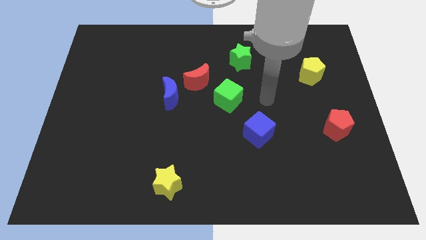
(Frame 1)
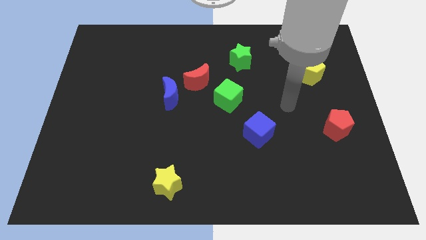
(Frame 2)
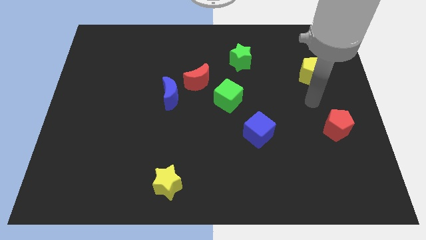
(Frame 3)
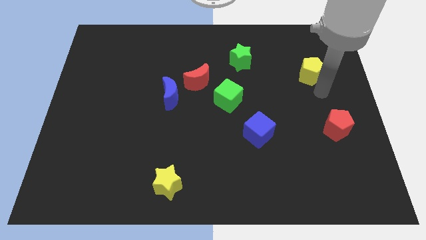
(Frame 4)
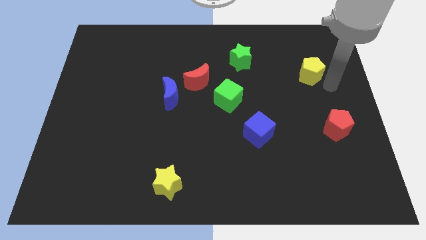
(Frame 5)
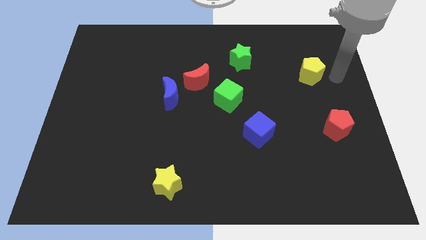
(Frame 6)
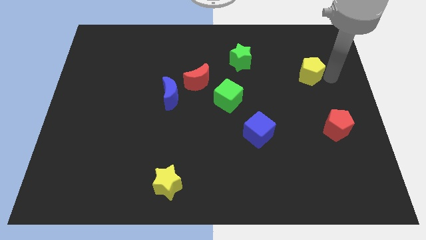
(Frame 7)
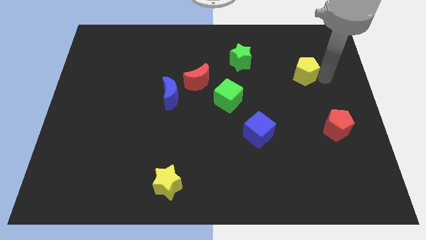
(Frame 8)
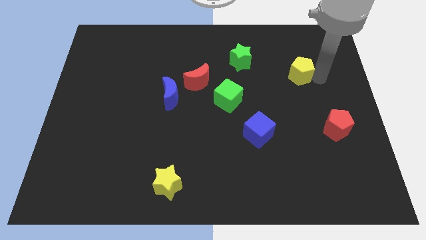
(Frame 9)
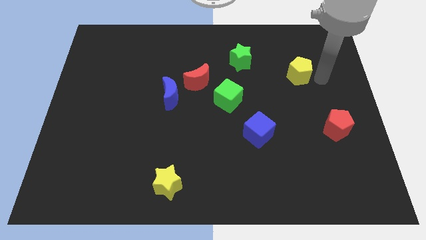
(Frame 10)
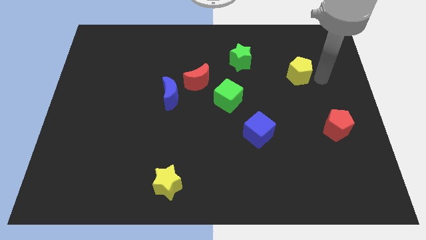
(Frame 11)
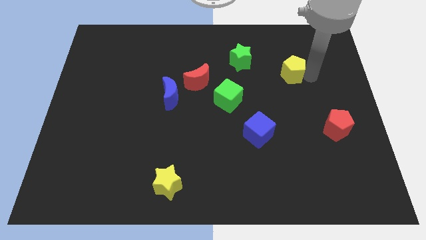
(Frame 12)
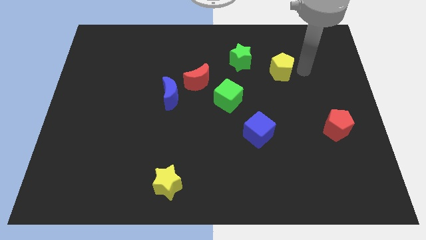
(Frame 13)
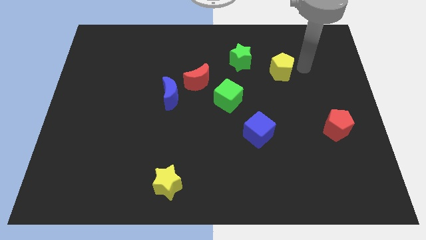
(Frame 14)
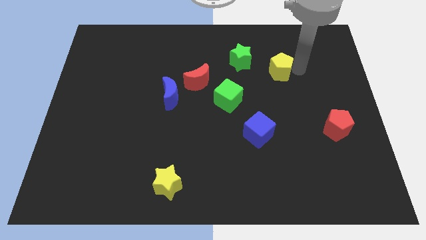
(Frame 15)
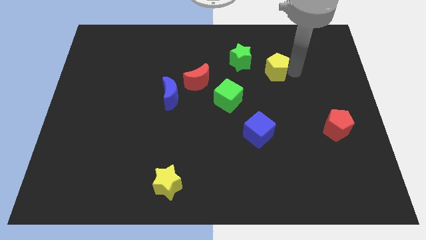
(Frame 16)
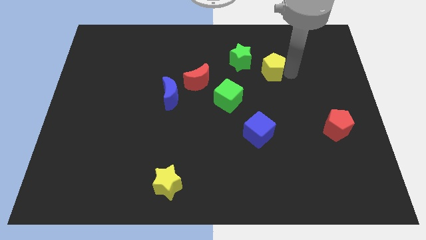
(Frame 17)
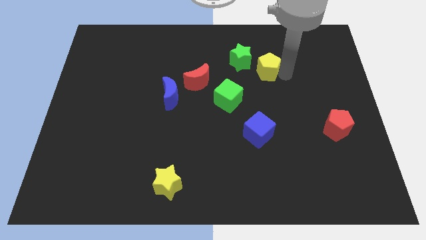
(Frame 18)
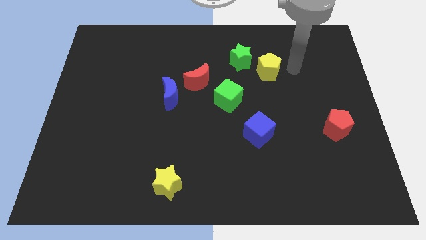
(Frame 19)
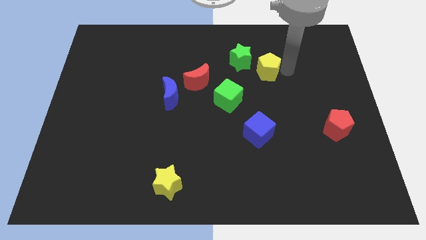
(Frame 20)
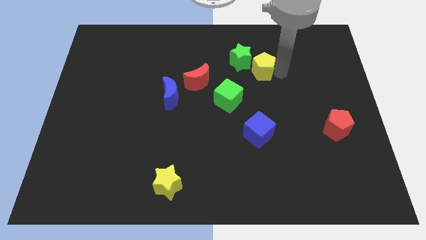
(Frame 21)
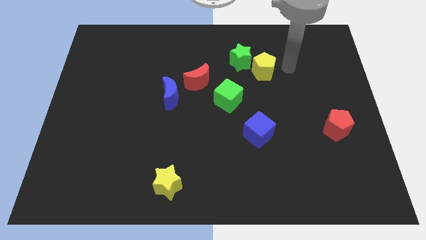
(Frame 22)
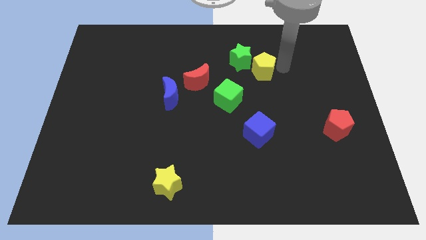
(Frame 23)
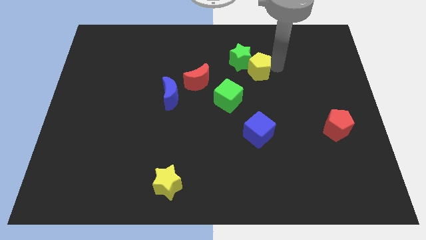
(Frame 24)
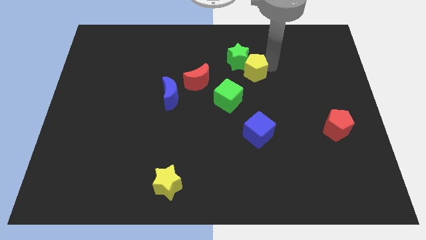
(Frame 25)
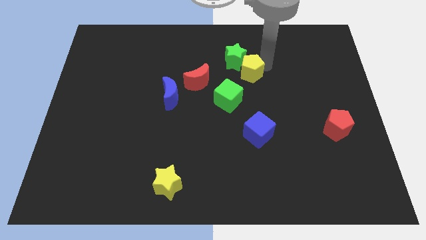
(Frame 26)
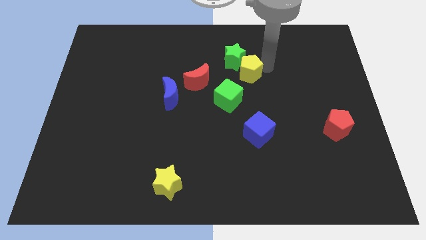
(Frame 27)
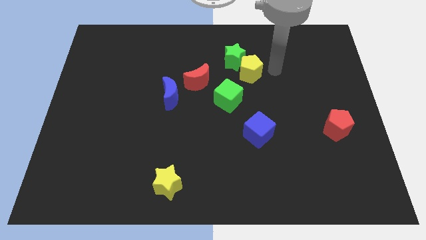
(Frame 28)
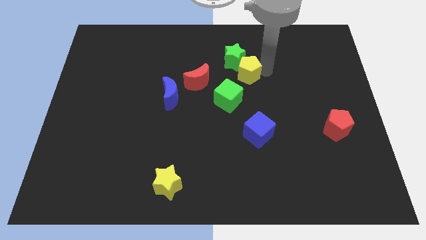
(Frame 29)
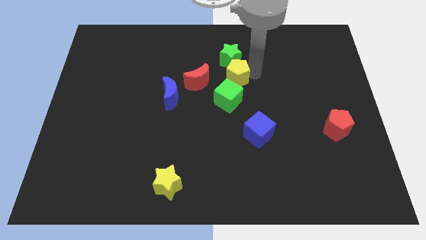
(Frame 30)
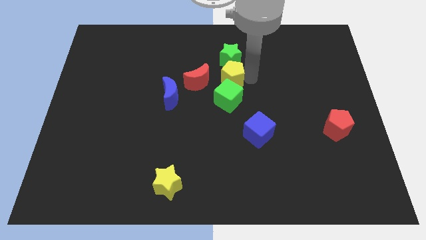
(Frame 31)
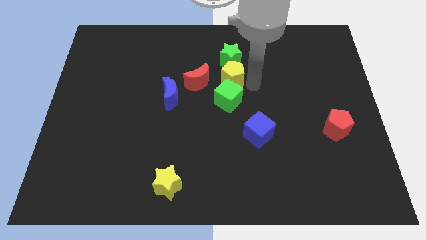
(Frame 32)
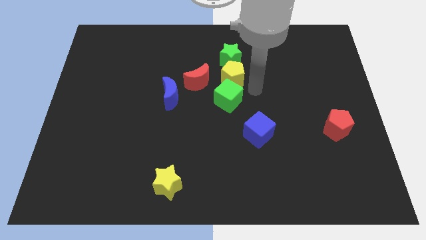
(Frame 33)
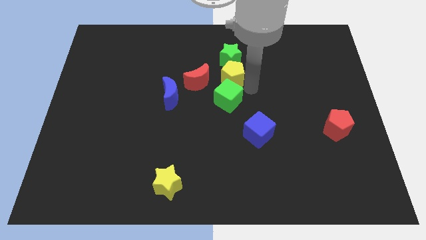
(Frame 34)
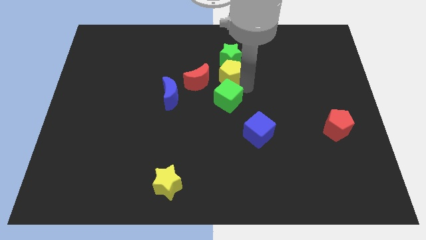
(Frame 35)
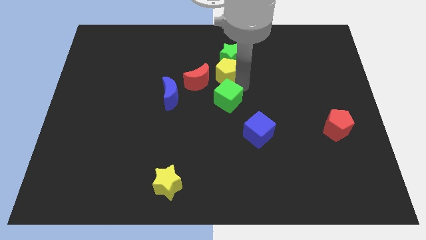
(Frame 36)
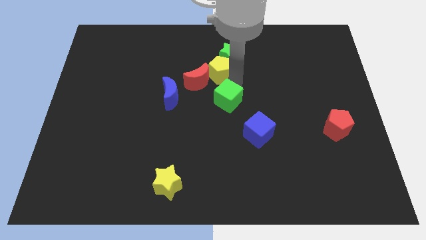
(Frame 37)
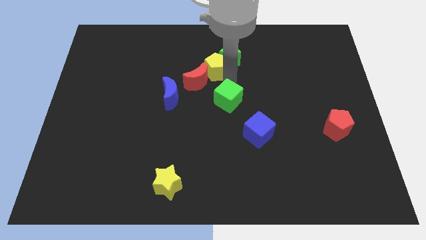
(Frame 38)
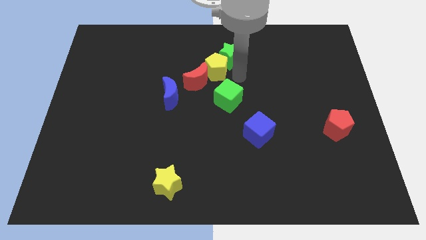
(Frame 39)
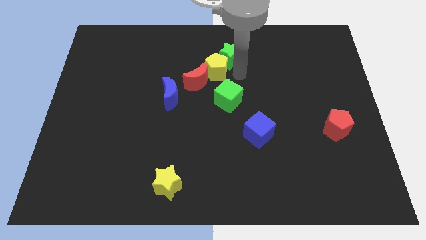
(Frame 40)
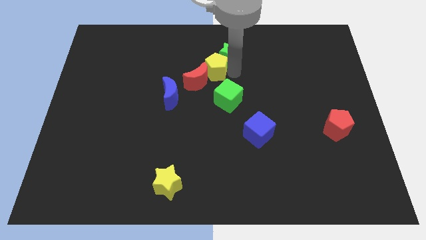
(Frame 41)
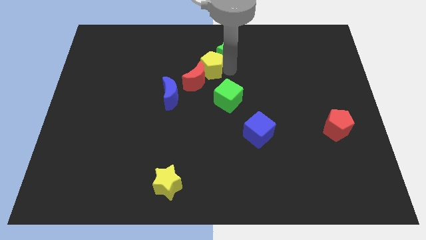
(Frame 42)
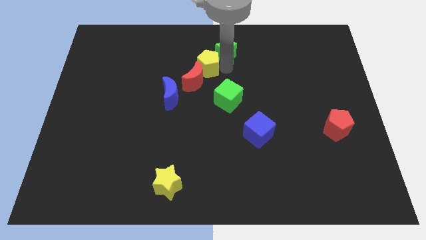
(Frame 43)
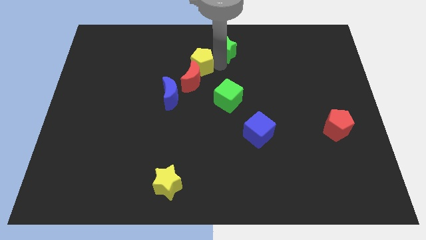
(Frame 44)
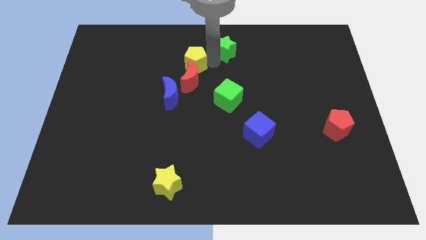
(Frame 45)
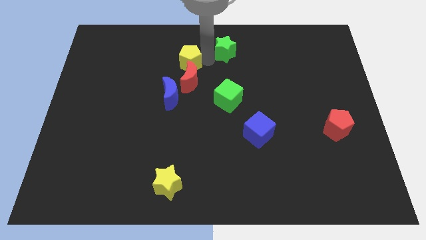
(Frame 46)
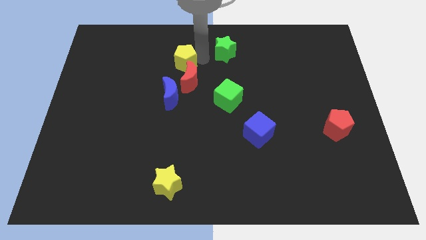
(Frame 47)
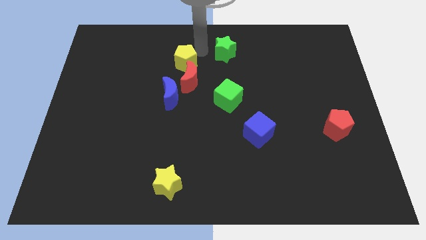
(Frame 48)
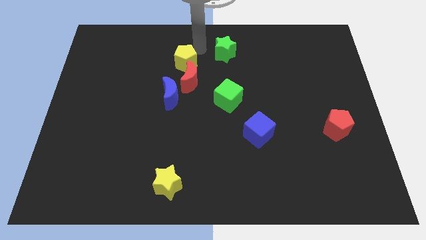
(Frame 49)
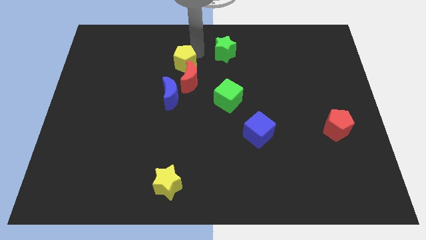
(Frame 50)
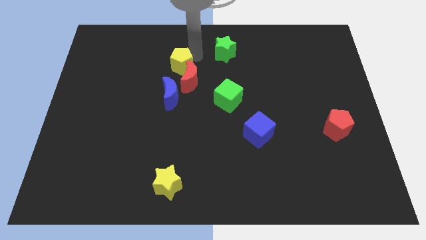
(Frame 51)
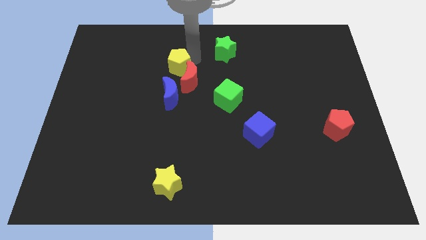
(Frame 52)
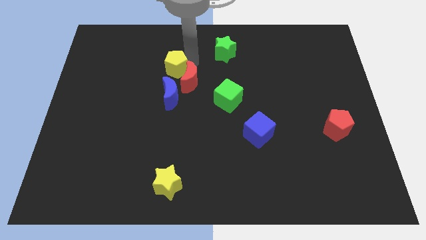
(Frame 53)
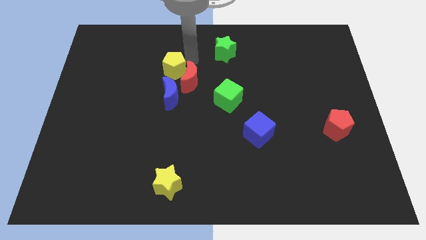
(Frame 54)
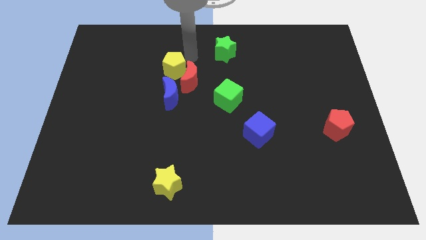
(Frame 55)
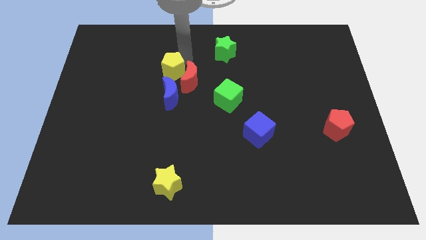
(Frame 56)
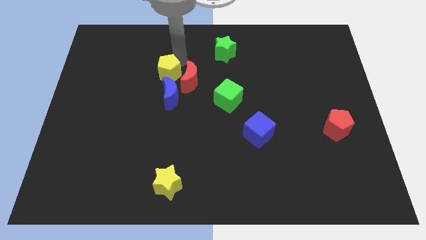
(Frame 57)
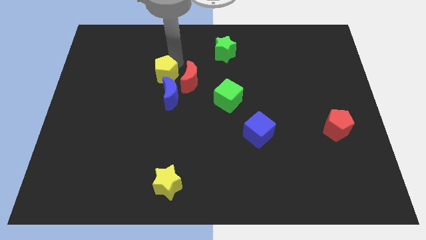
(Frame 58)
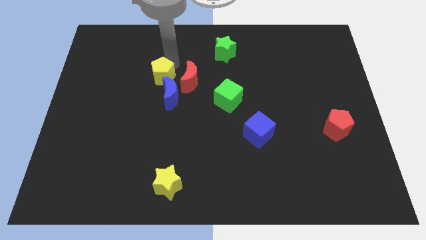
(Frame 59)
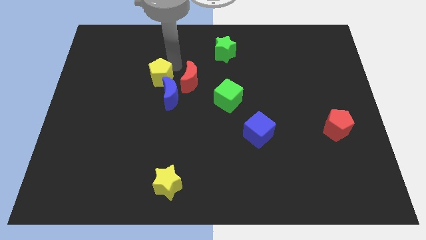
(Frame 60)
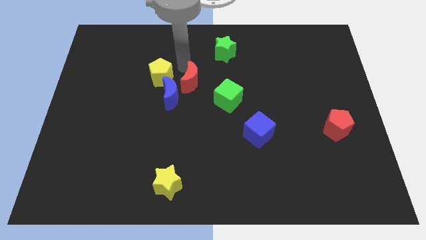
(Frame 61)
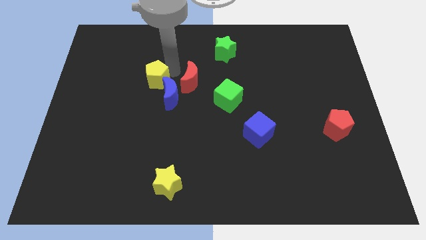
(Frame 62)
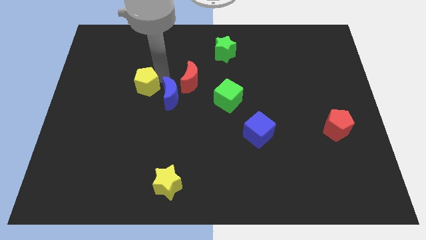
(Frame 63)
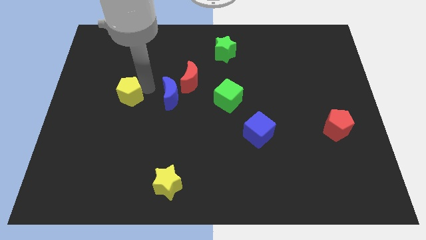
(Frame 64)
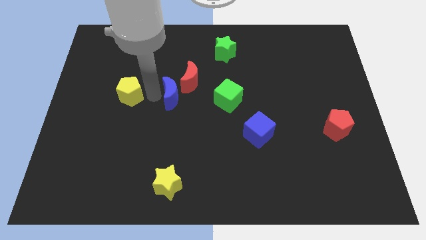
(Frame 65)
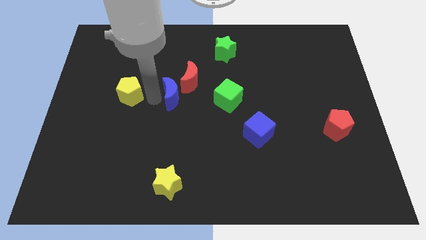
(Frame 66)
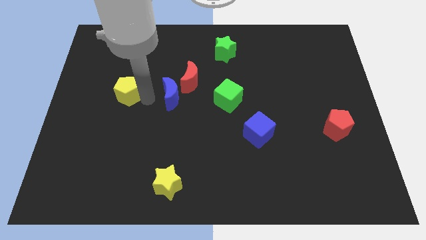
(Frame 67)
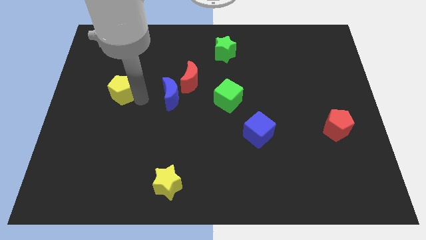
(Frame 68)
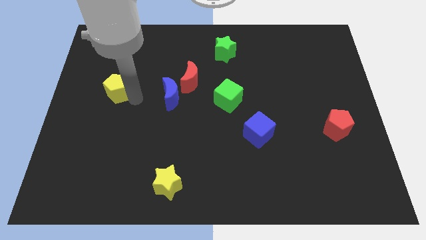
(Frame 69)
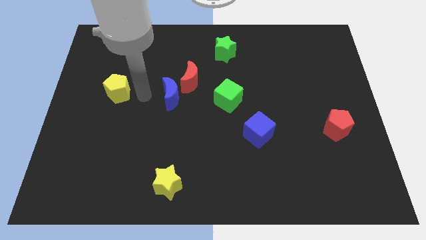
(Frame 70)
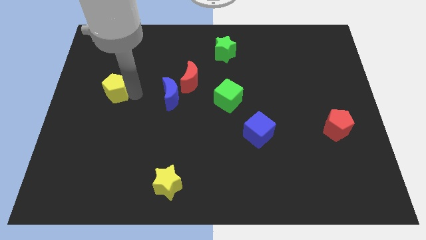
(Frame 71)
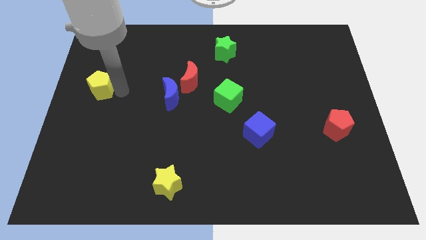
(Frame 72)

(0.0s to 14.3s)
slide the yellow pentagon to the center left
